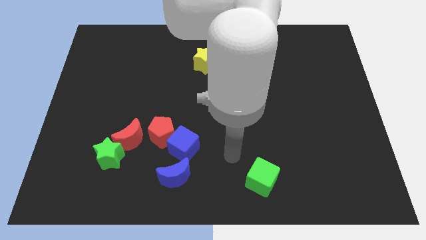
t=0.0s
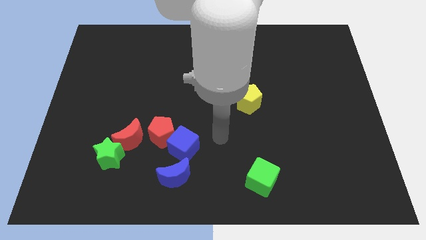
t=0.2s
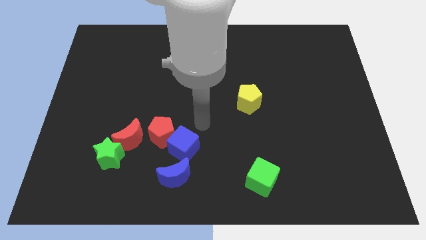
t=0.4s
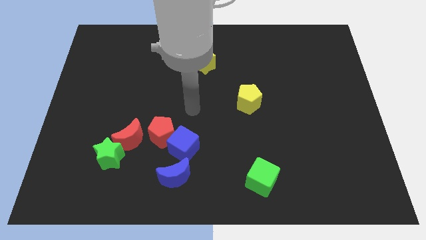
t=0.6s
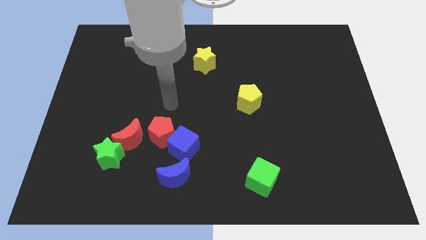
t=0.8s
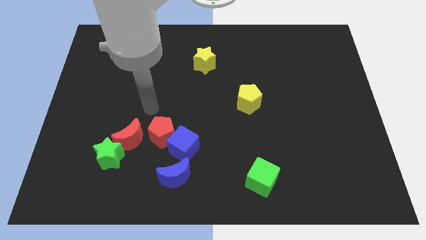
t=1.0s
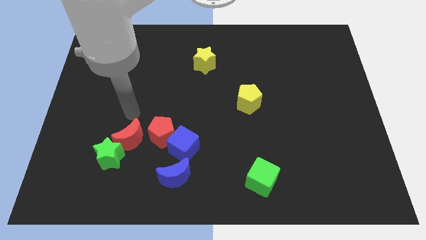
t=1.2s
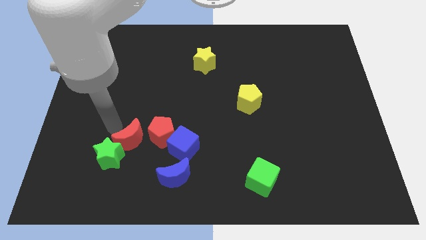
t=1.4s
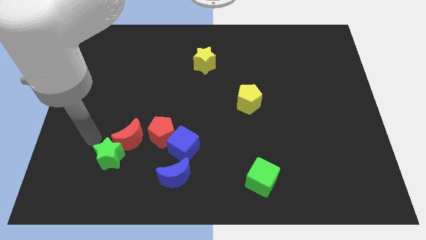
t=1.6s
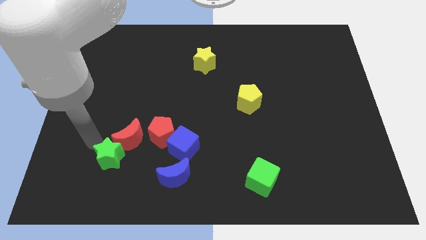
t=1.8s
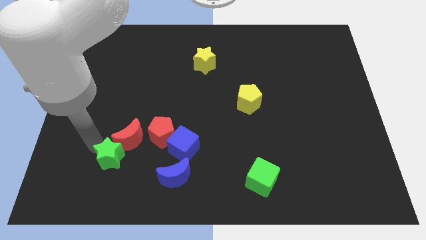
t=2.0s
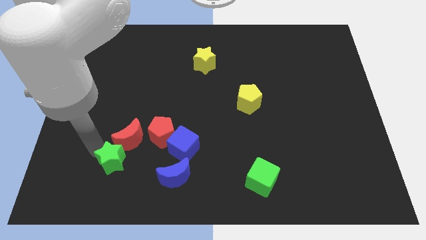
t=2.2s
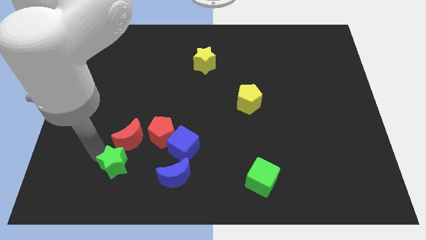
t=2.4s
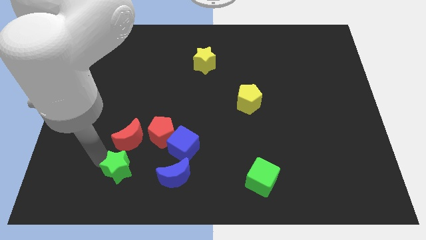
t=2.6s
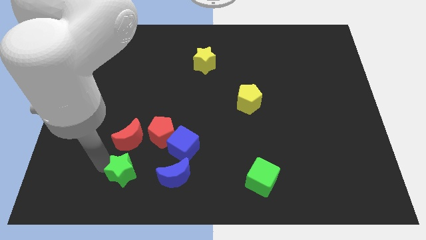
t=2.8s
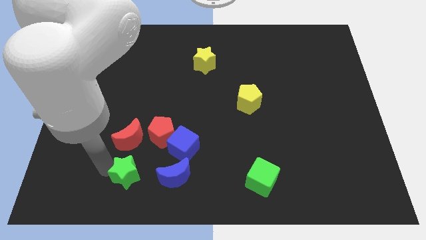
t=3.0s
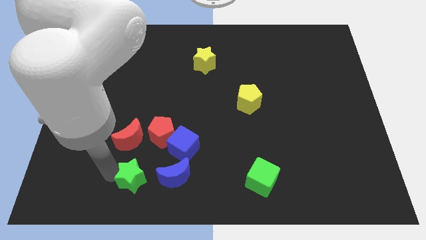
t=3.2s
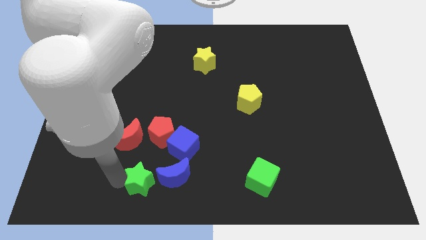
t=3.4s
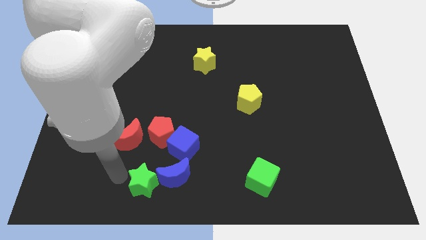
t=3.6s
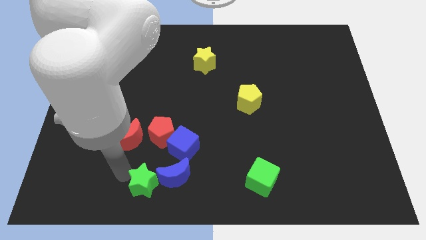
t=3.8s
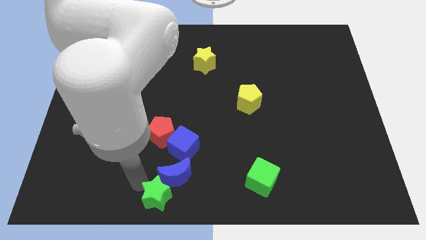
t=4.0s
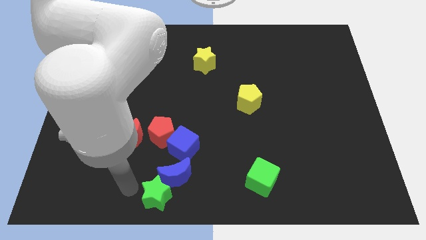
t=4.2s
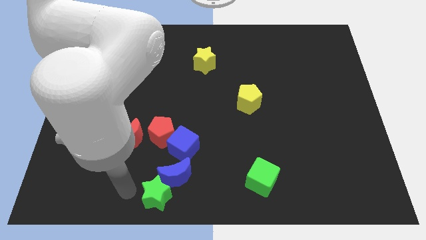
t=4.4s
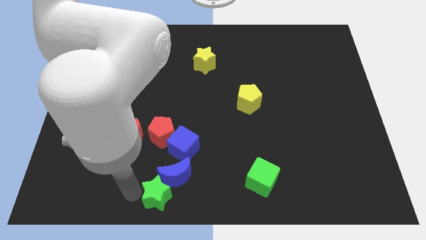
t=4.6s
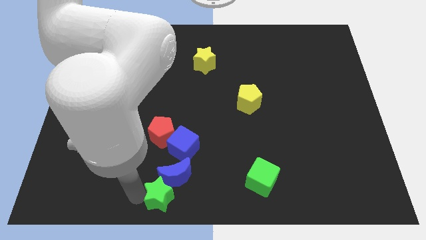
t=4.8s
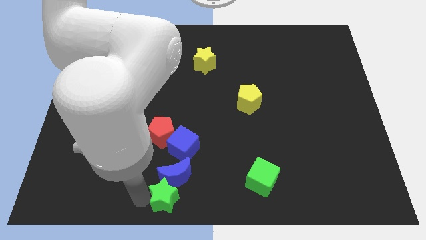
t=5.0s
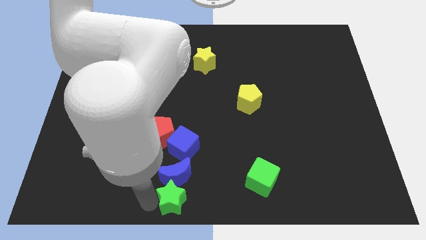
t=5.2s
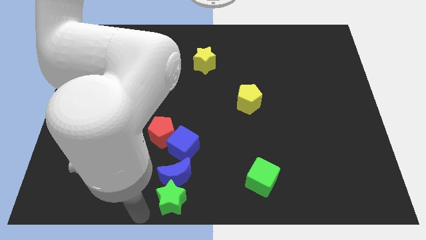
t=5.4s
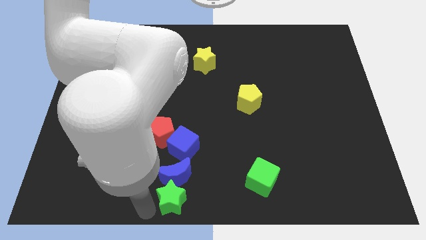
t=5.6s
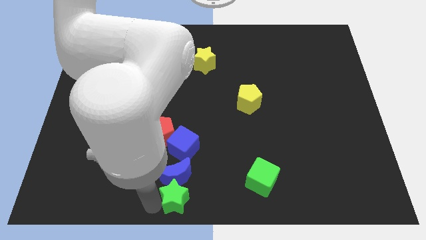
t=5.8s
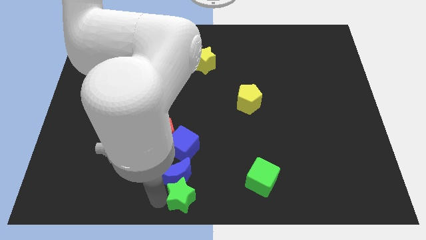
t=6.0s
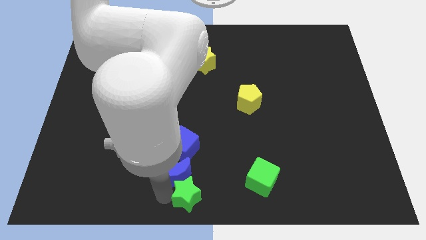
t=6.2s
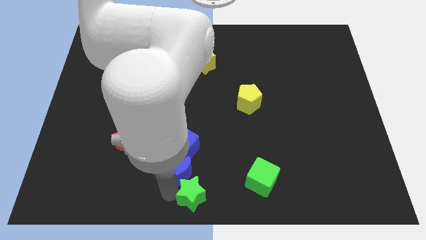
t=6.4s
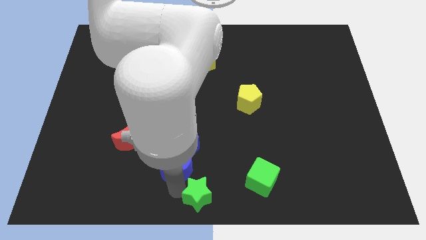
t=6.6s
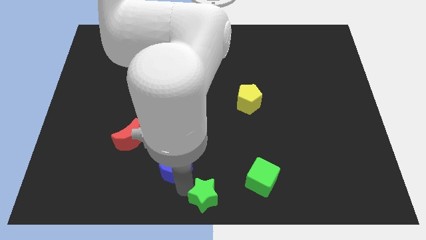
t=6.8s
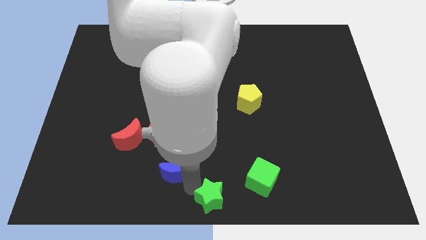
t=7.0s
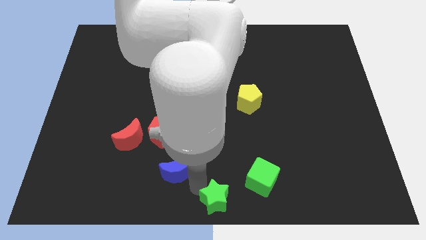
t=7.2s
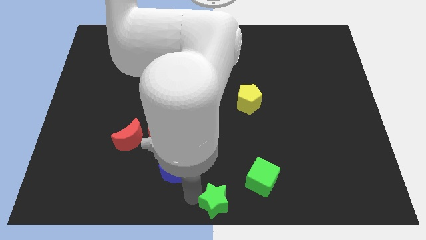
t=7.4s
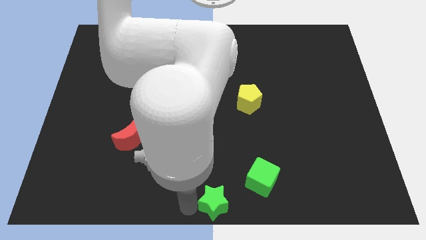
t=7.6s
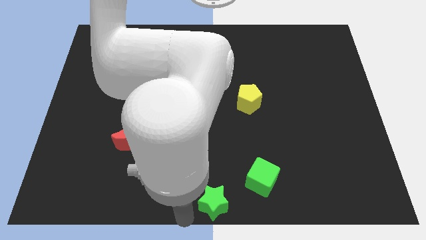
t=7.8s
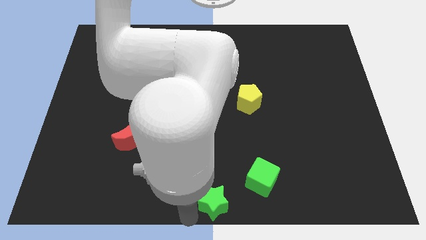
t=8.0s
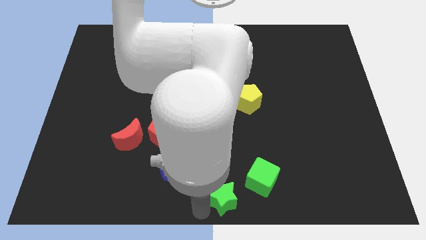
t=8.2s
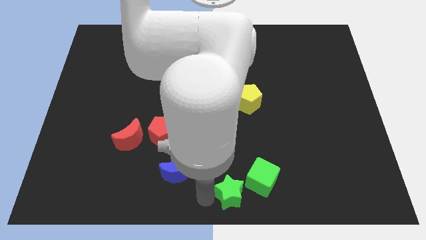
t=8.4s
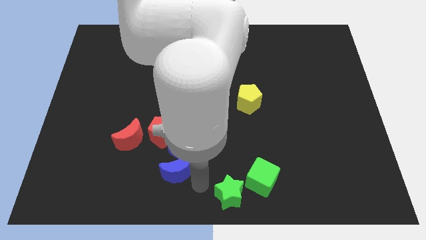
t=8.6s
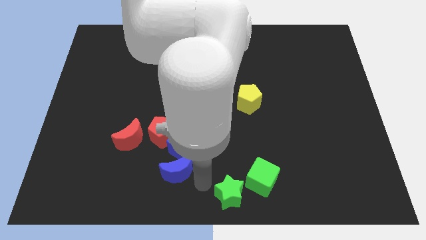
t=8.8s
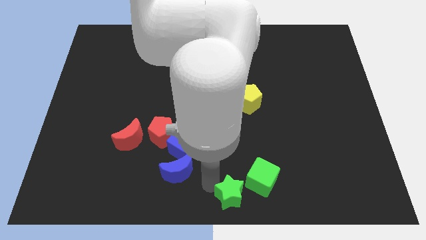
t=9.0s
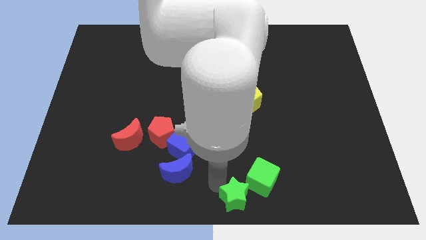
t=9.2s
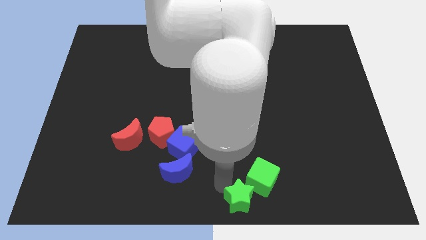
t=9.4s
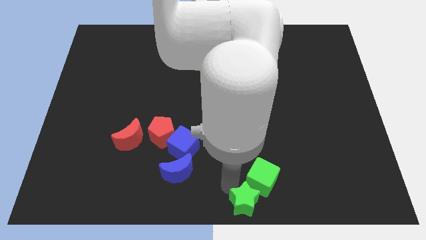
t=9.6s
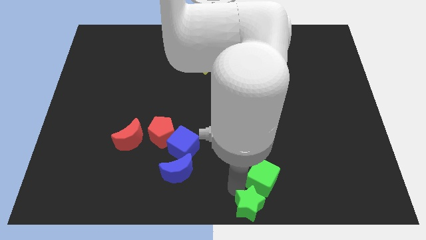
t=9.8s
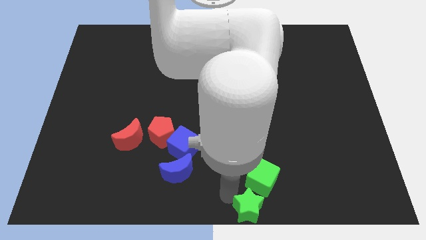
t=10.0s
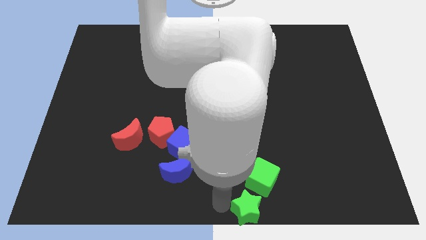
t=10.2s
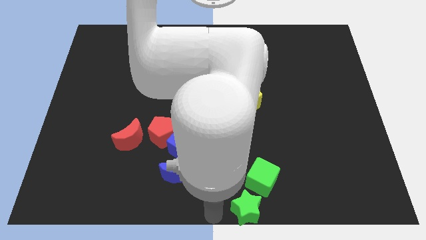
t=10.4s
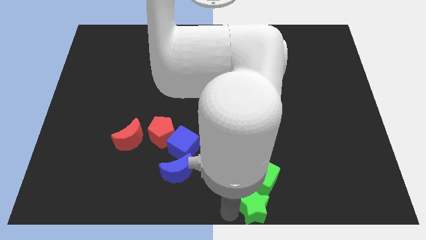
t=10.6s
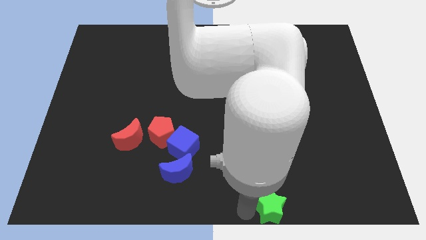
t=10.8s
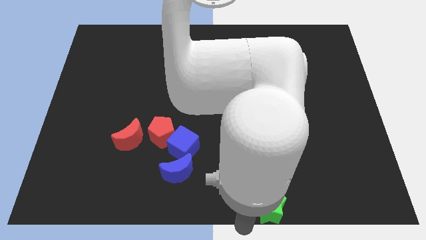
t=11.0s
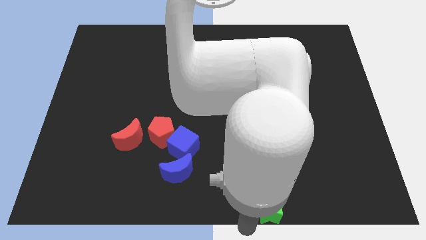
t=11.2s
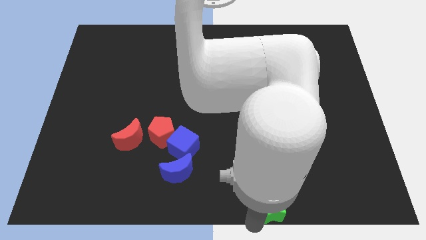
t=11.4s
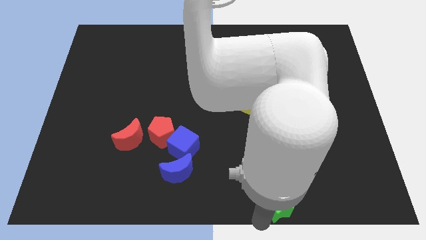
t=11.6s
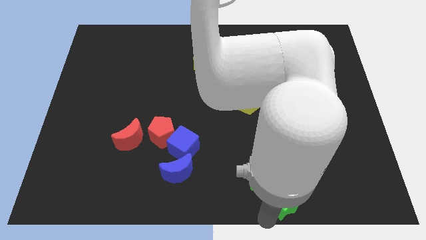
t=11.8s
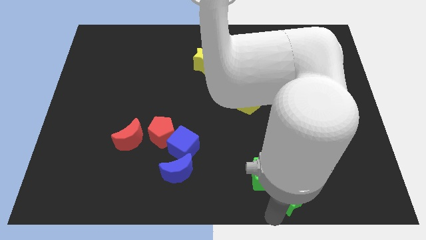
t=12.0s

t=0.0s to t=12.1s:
push the green star right of the green cube

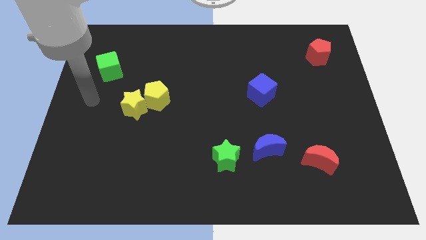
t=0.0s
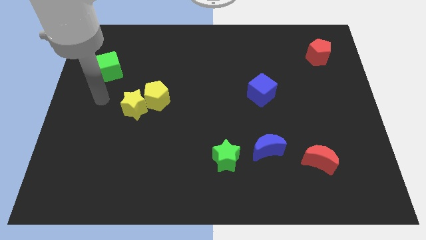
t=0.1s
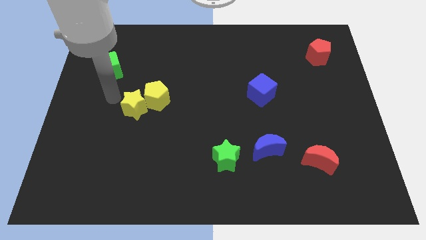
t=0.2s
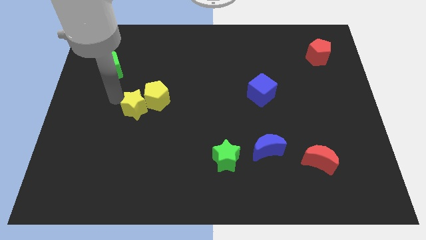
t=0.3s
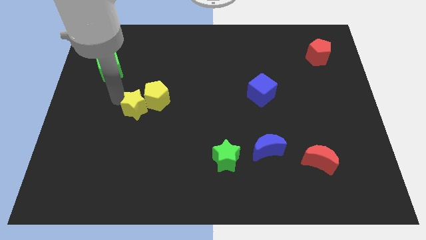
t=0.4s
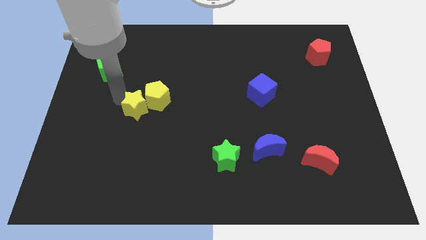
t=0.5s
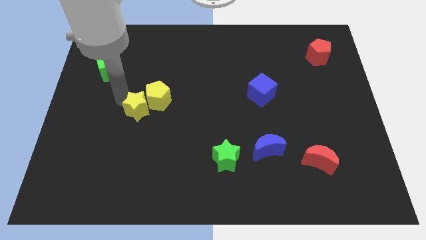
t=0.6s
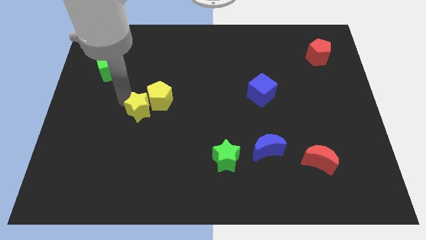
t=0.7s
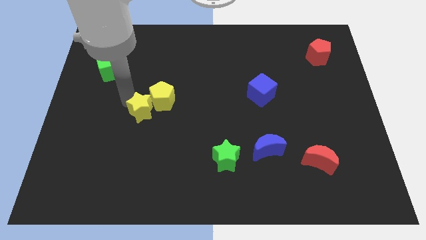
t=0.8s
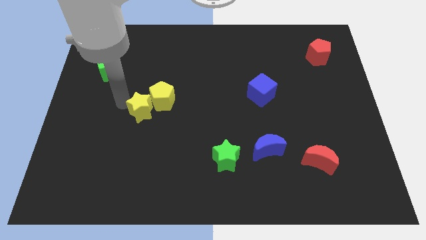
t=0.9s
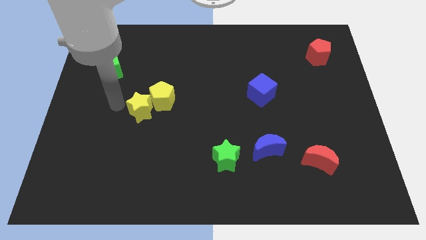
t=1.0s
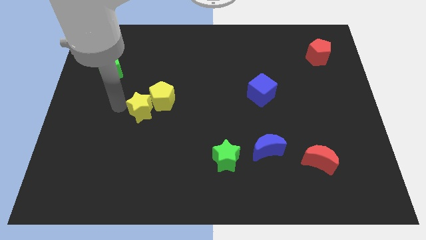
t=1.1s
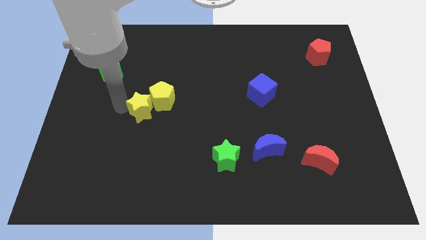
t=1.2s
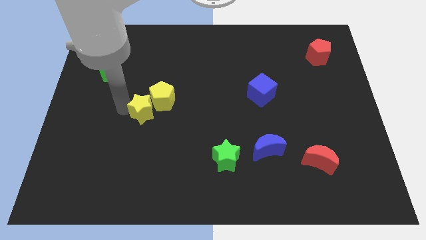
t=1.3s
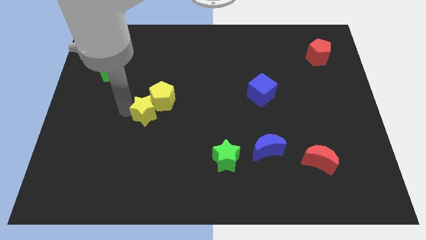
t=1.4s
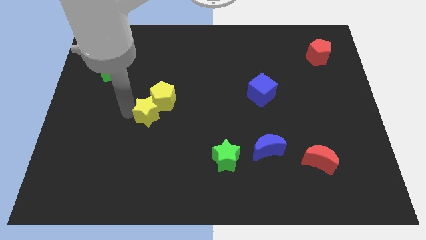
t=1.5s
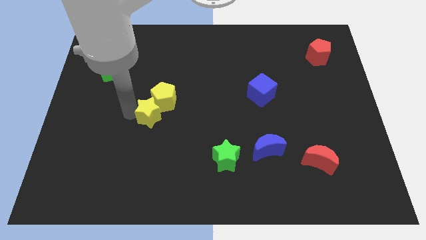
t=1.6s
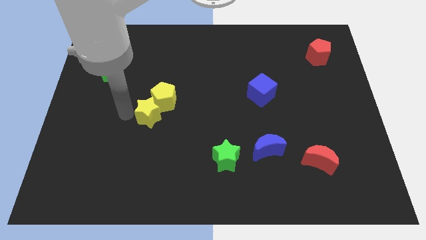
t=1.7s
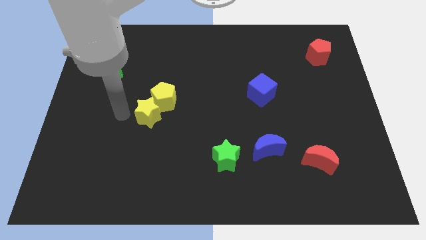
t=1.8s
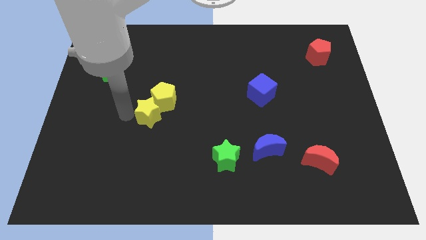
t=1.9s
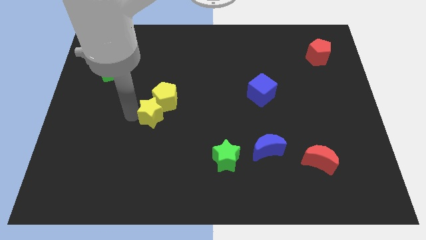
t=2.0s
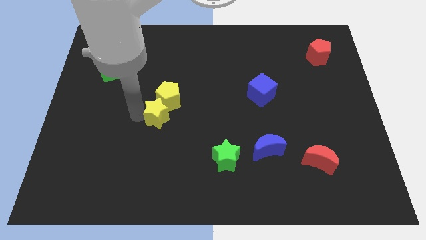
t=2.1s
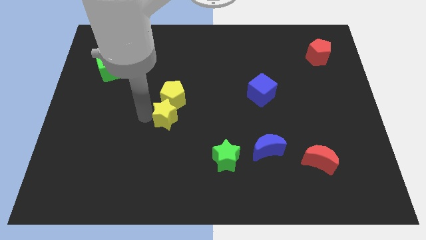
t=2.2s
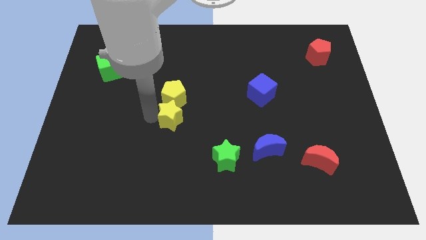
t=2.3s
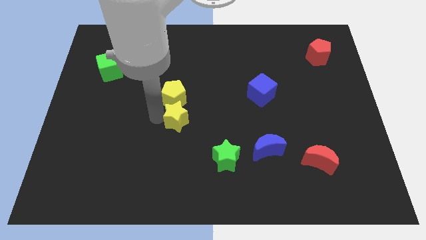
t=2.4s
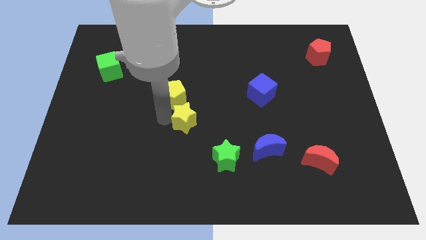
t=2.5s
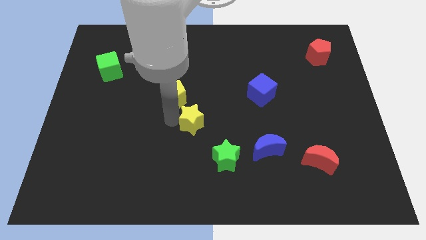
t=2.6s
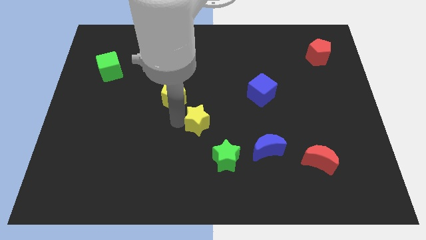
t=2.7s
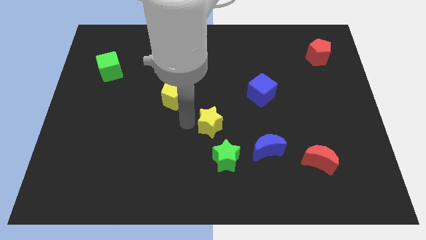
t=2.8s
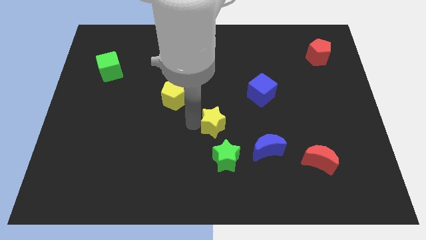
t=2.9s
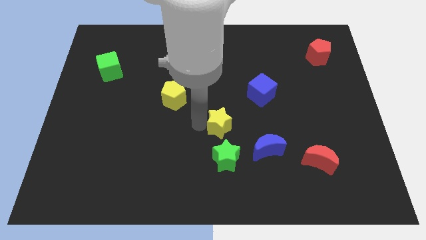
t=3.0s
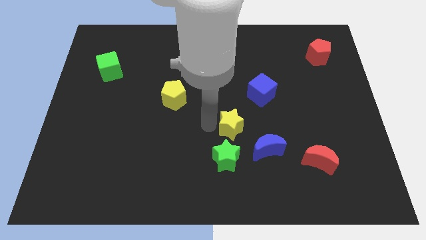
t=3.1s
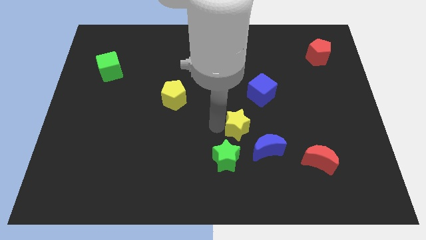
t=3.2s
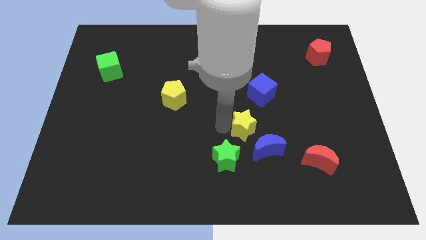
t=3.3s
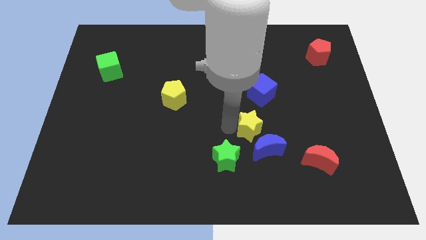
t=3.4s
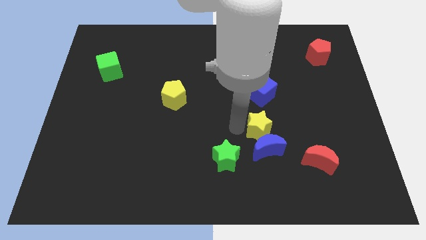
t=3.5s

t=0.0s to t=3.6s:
move the yellow star to the top right of the blue moon
